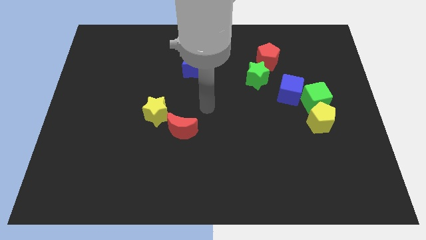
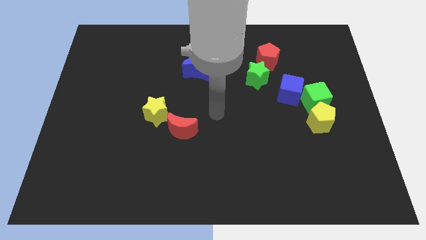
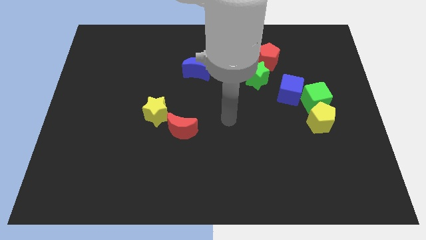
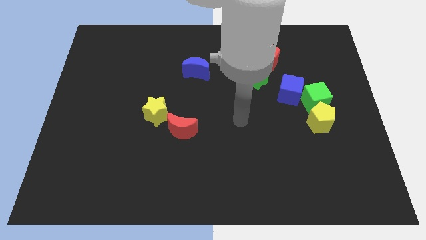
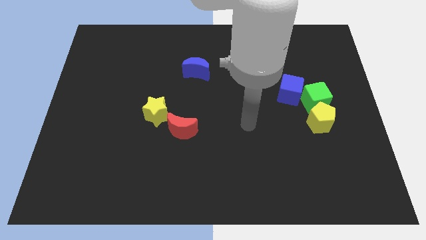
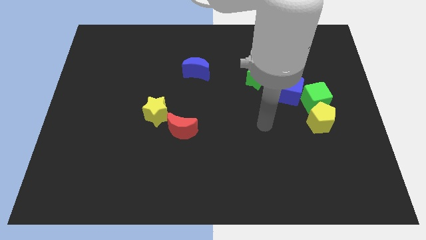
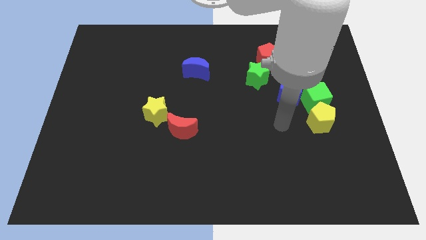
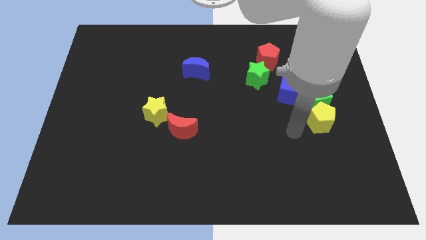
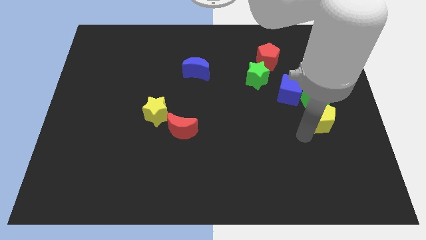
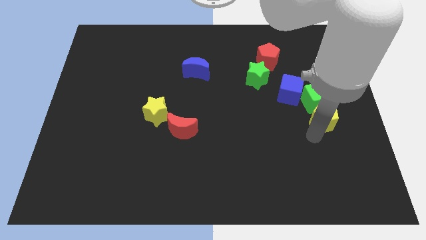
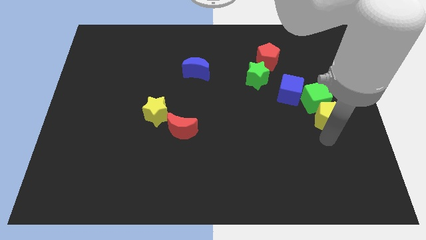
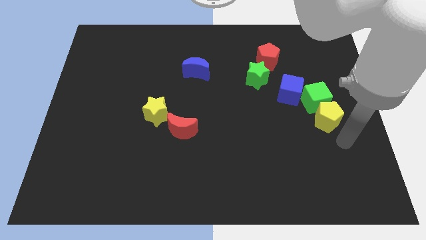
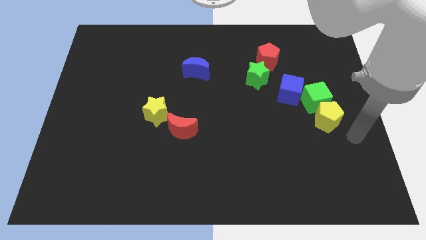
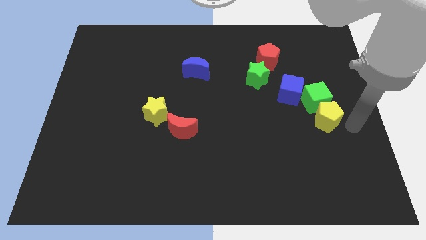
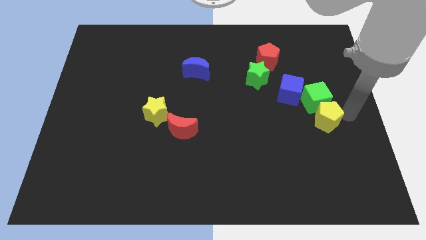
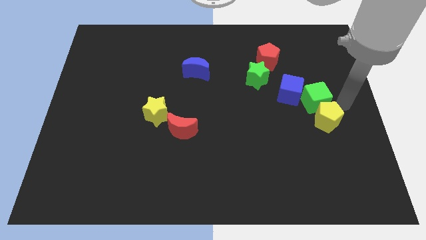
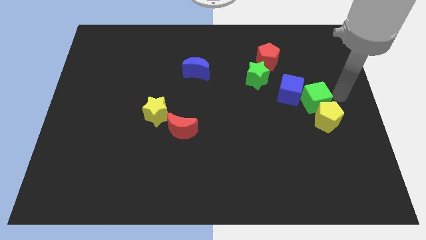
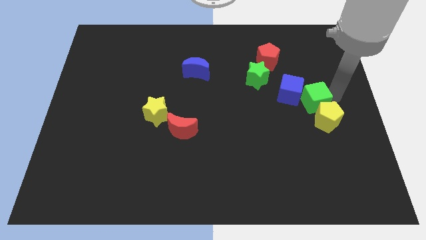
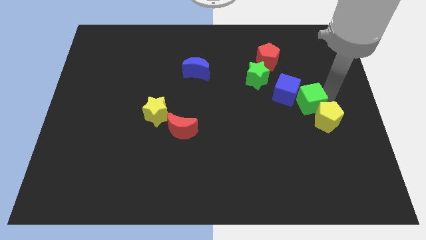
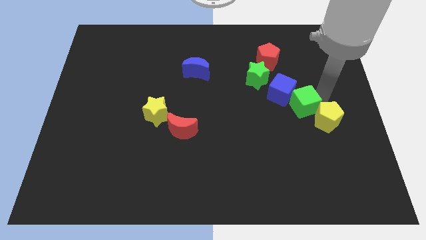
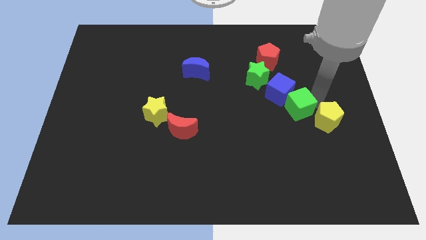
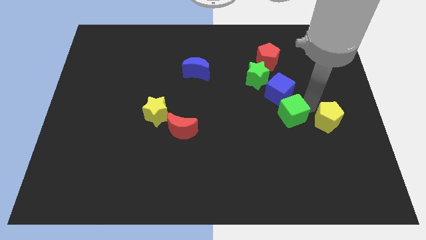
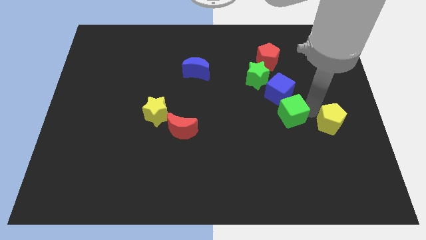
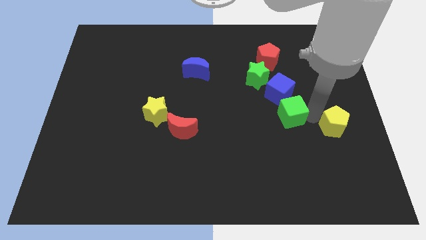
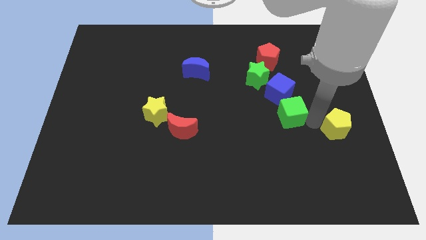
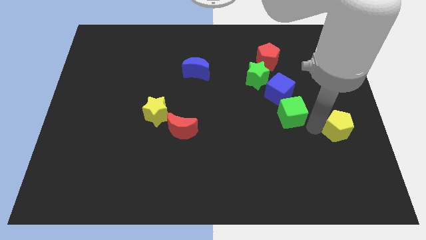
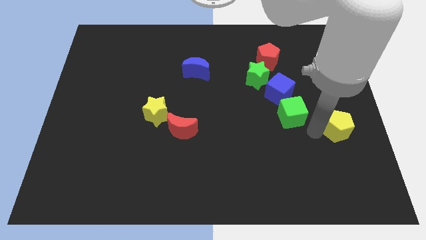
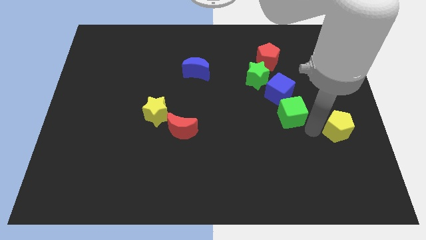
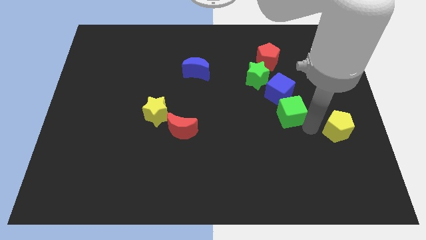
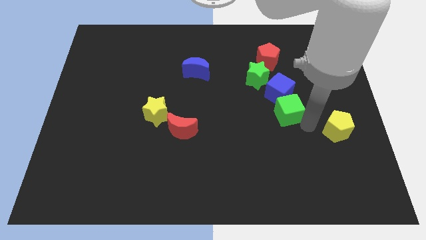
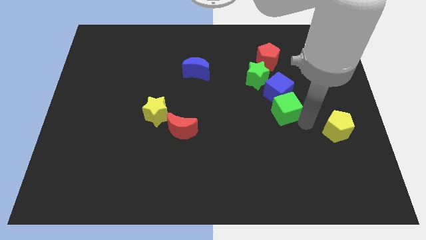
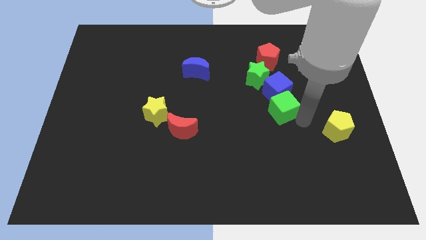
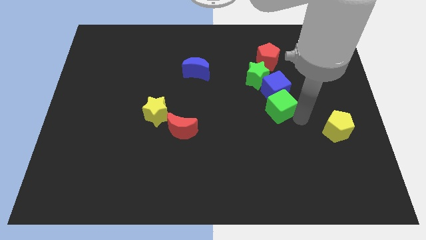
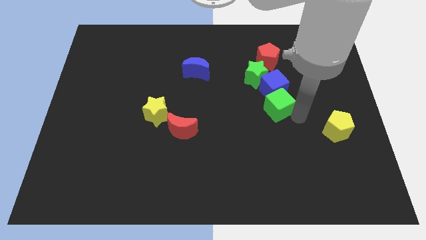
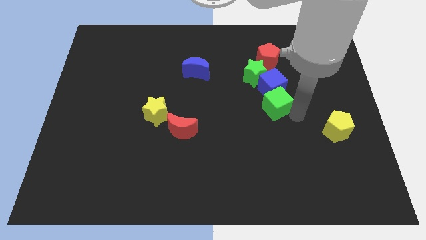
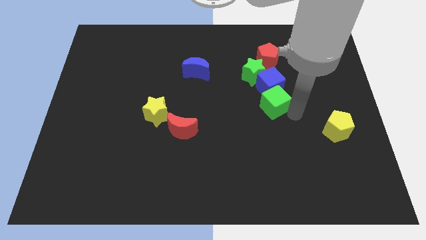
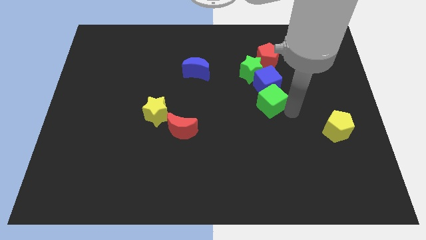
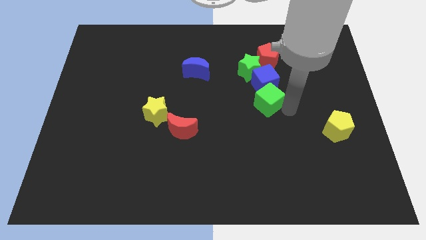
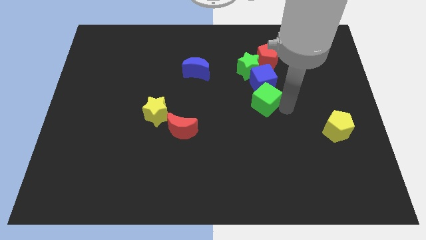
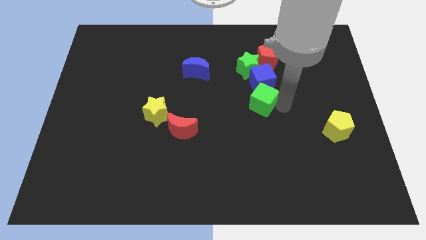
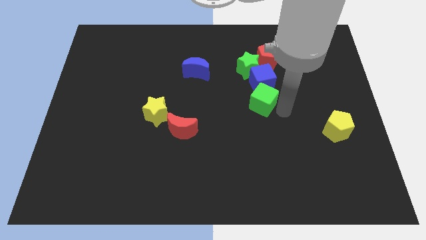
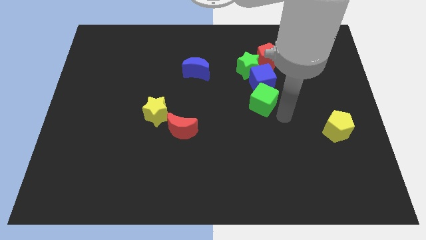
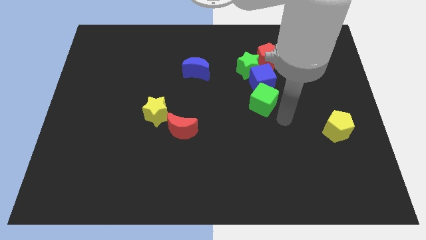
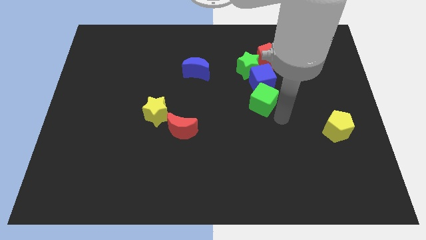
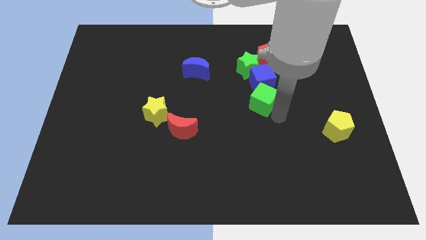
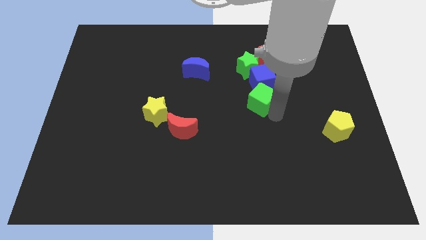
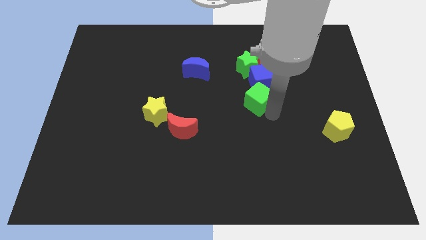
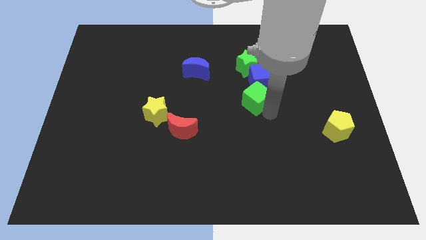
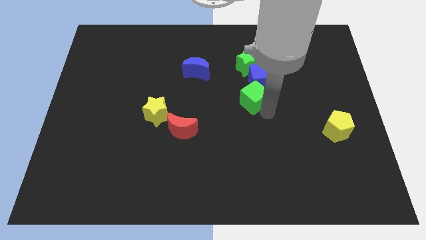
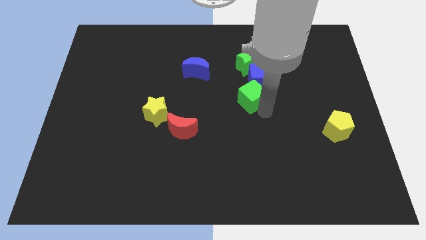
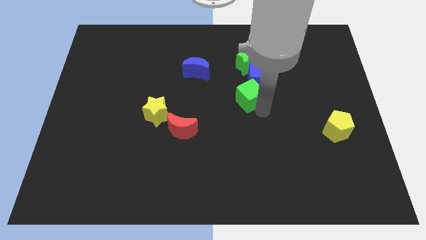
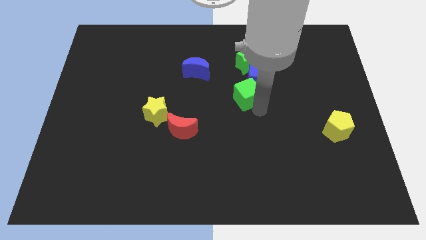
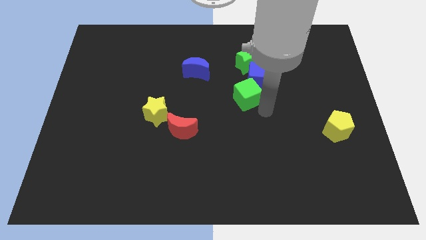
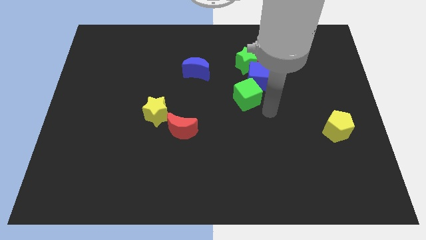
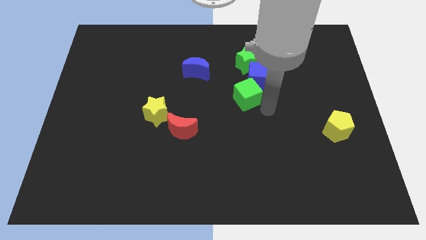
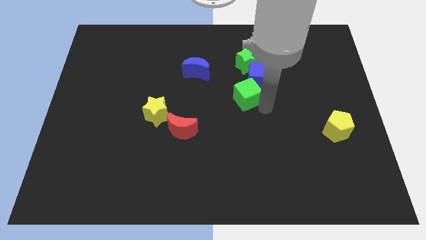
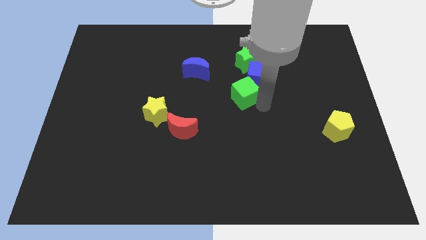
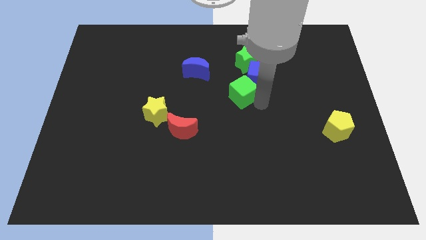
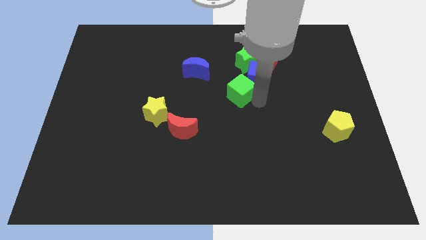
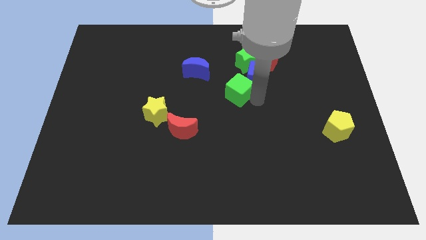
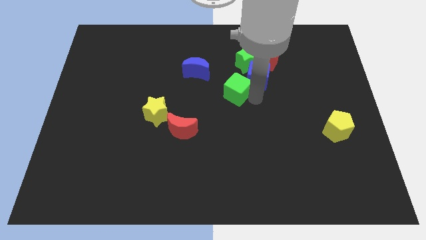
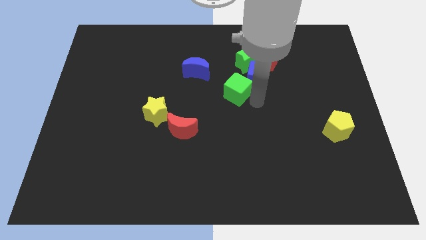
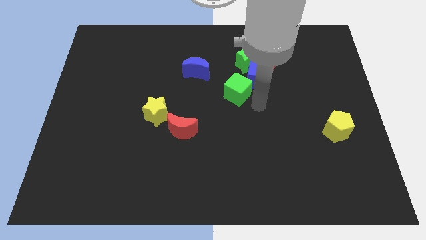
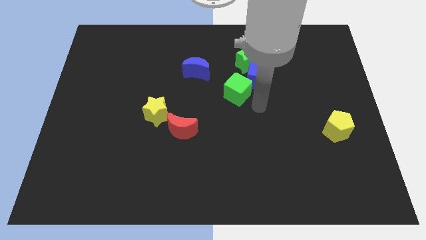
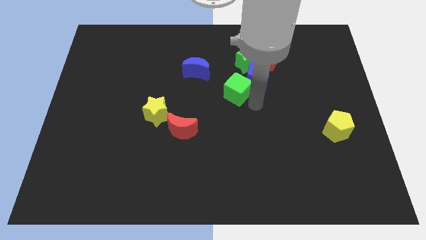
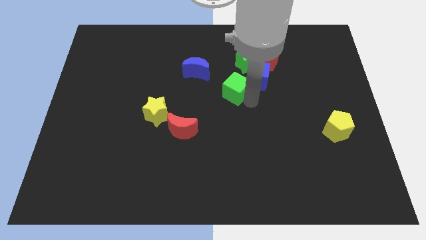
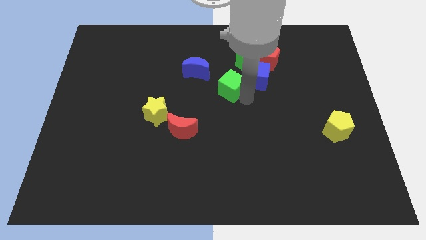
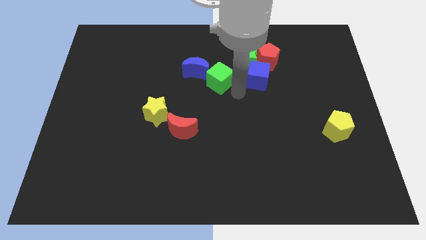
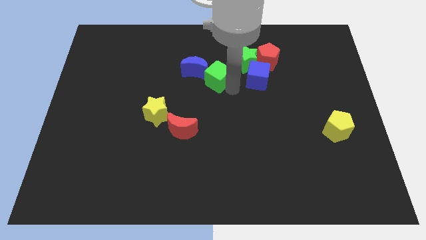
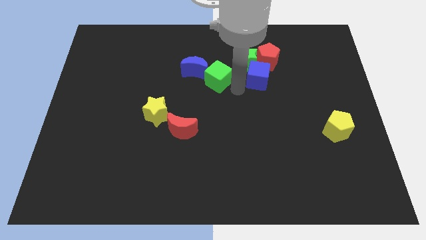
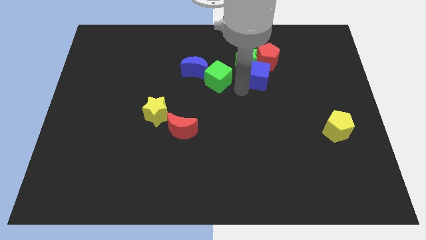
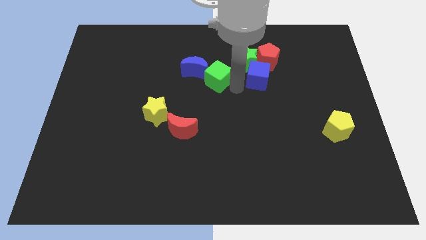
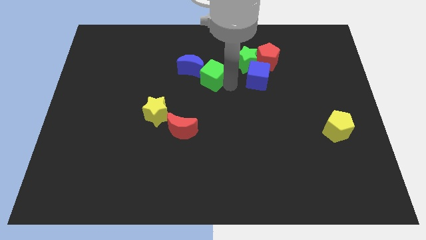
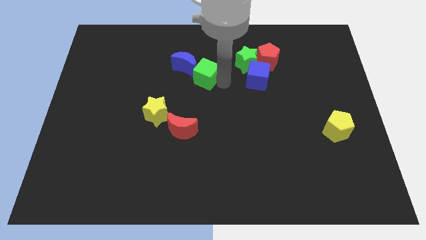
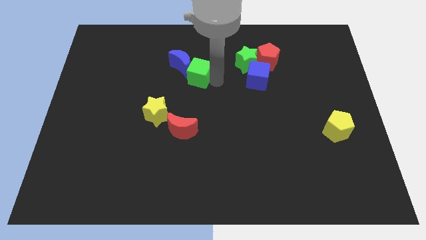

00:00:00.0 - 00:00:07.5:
move the green cube close to the blue moon

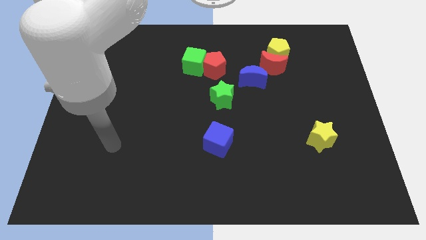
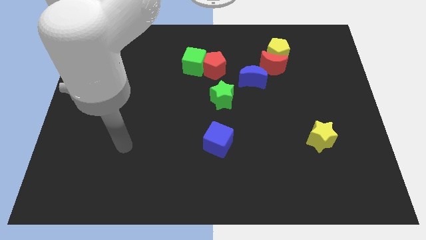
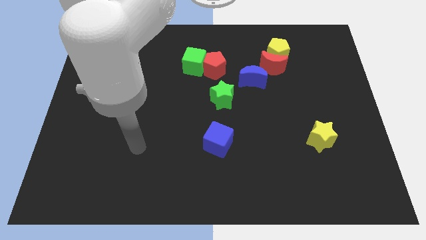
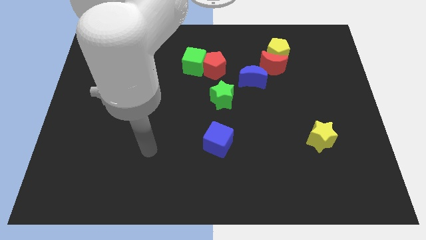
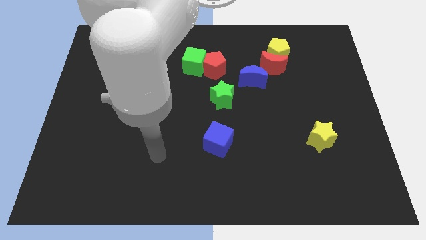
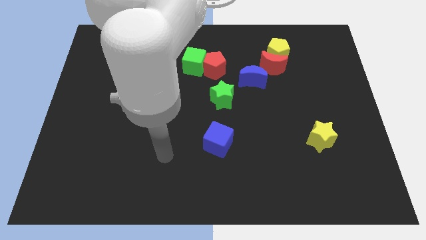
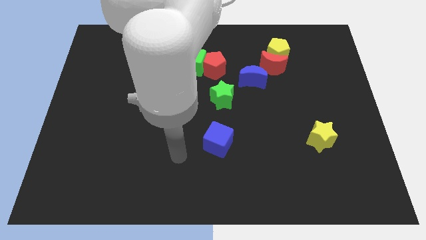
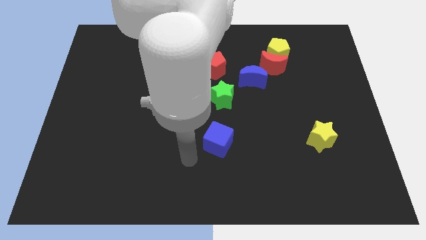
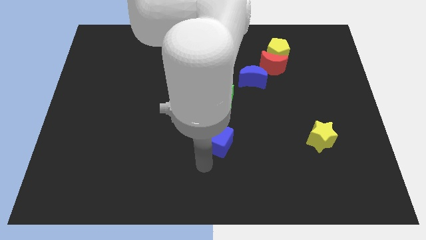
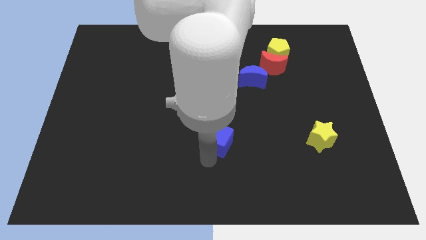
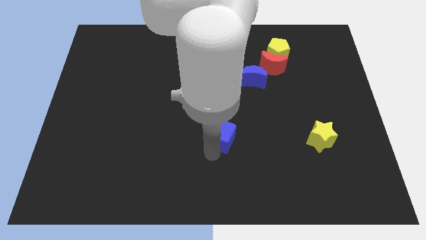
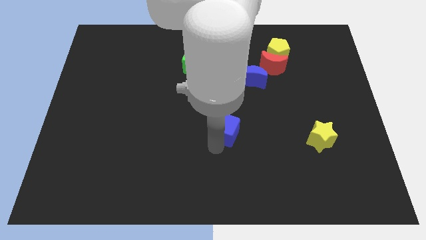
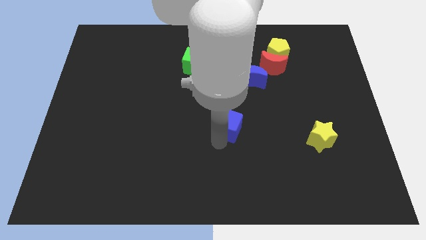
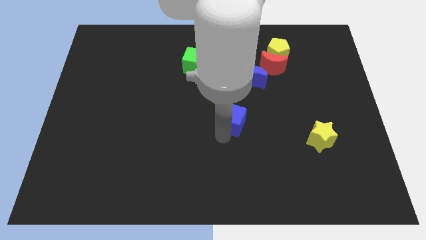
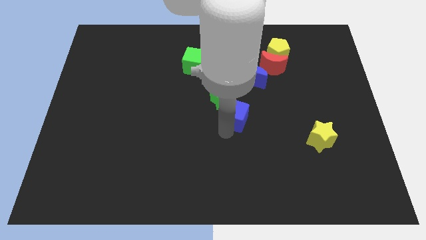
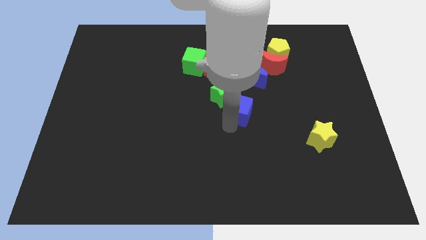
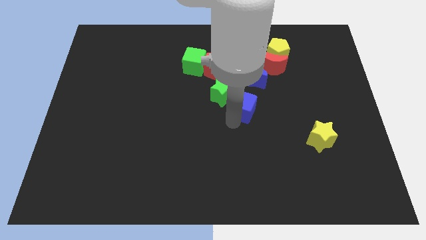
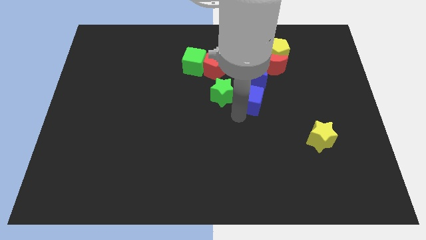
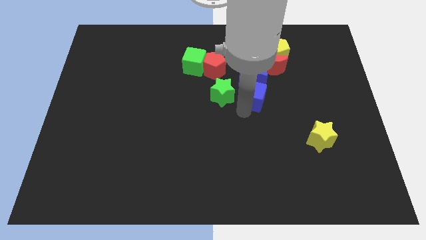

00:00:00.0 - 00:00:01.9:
move the blue cube next to the blue moon
